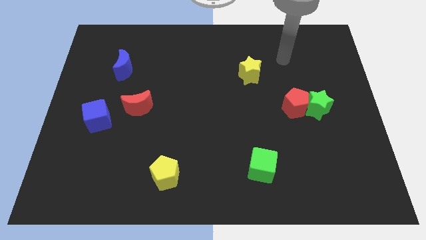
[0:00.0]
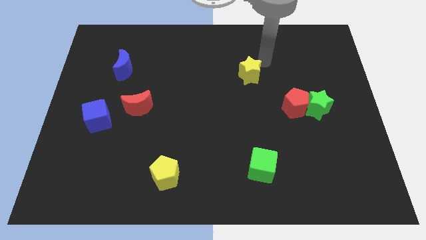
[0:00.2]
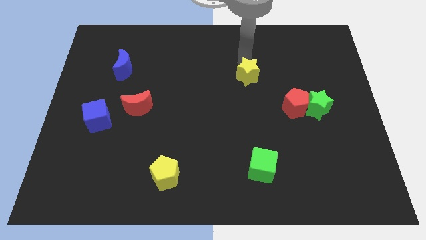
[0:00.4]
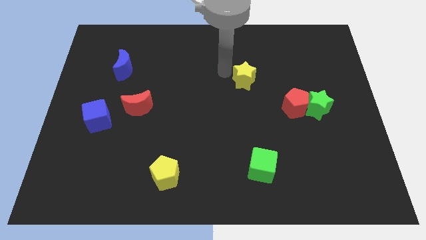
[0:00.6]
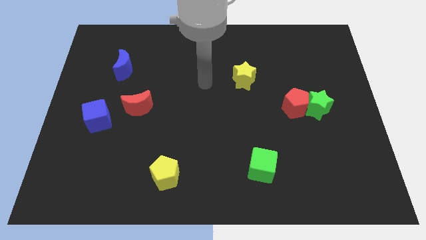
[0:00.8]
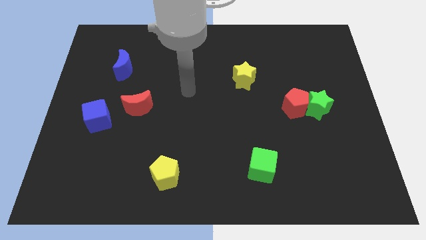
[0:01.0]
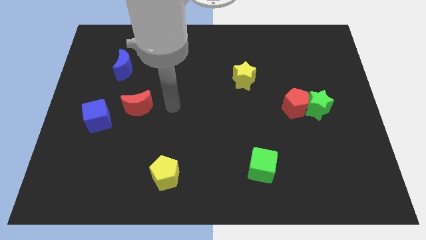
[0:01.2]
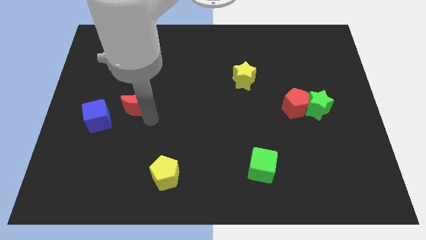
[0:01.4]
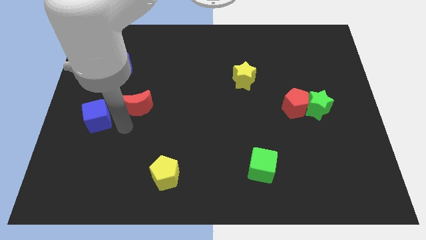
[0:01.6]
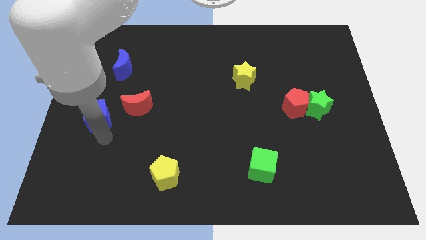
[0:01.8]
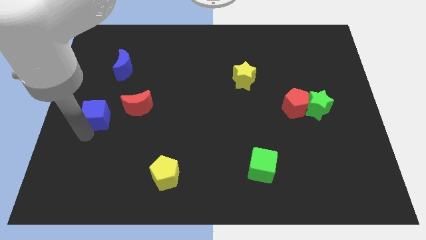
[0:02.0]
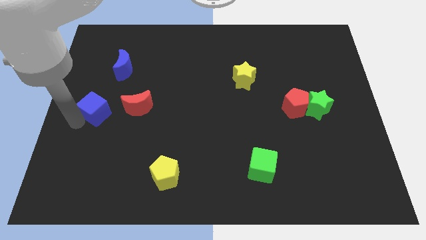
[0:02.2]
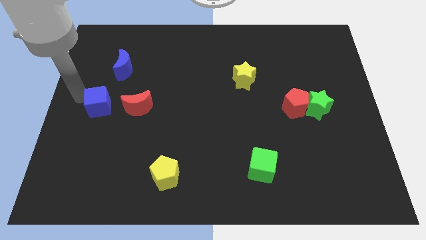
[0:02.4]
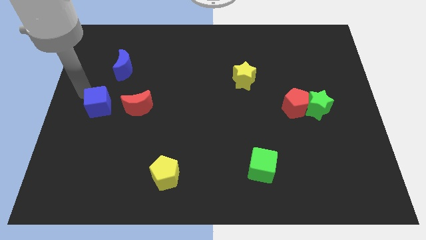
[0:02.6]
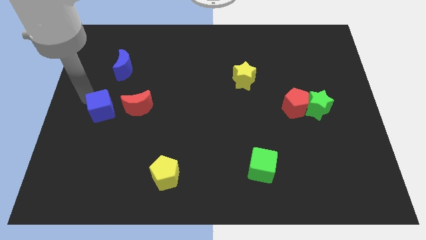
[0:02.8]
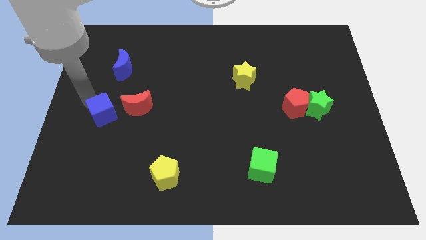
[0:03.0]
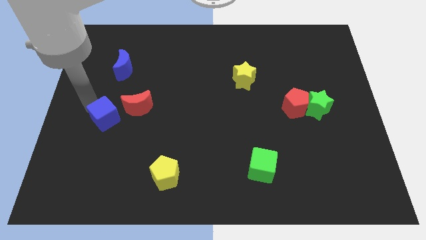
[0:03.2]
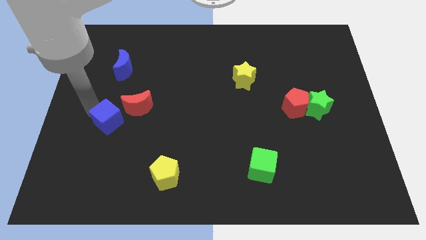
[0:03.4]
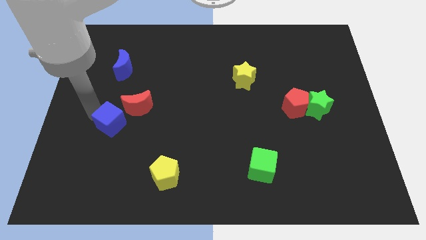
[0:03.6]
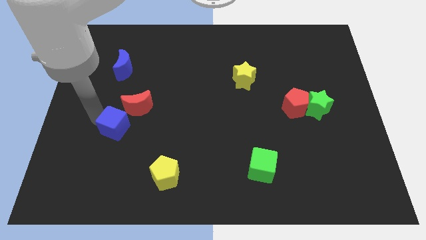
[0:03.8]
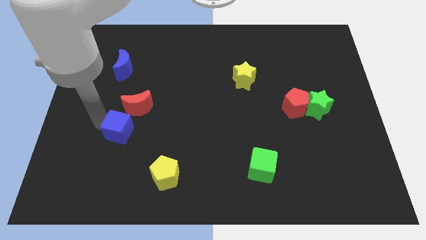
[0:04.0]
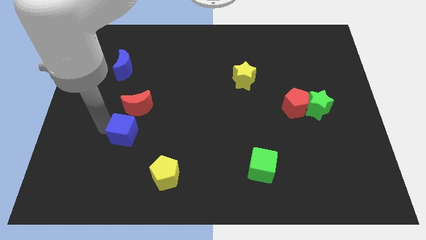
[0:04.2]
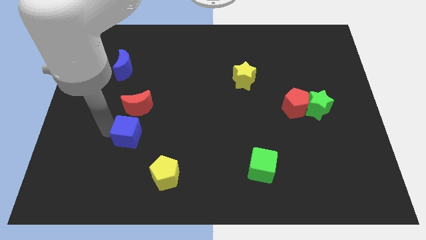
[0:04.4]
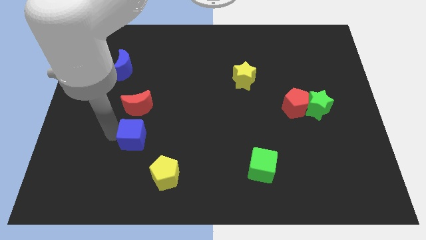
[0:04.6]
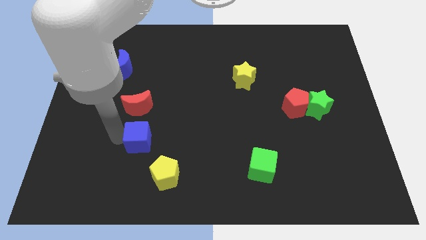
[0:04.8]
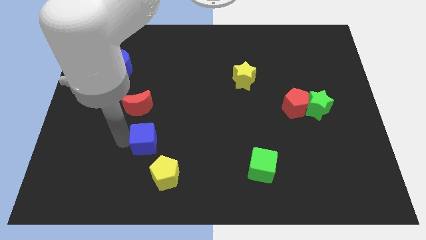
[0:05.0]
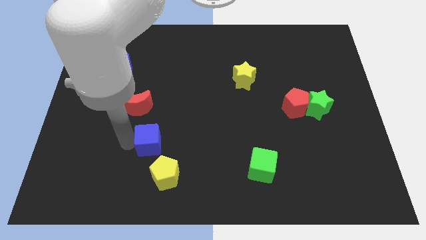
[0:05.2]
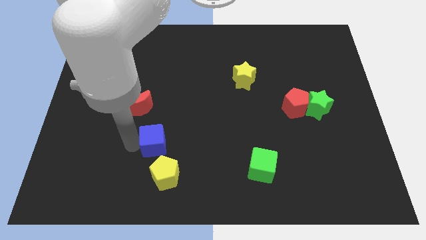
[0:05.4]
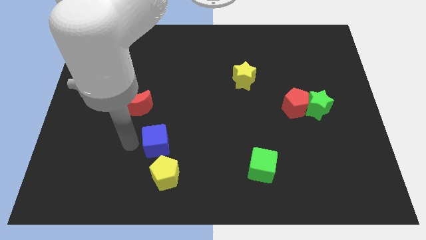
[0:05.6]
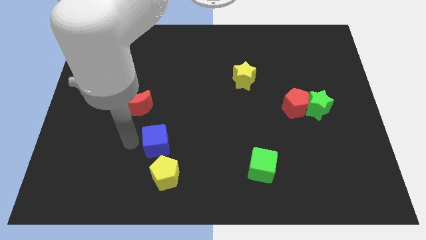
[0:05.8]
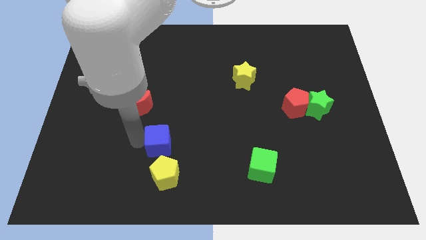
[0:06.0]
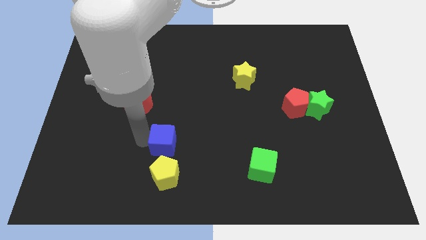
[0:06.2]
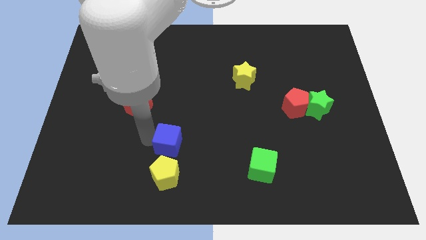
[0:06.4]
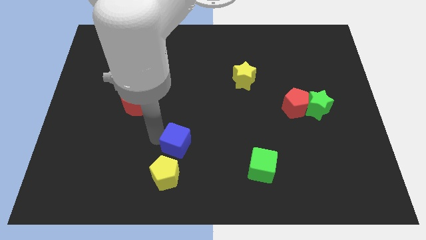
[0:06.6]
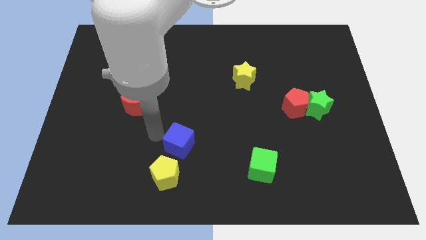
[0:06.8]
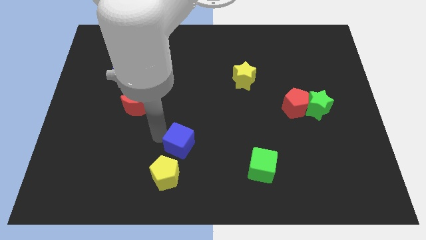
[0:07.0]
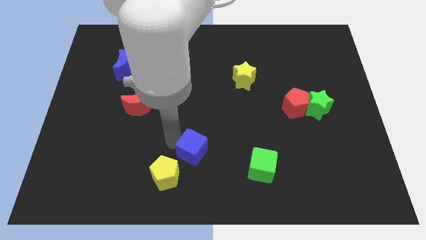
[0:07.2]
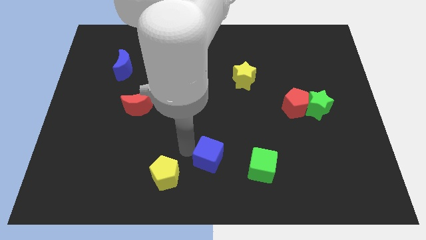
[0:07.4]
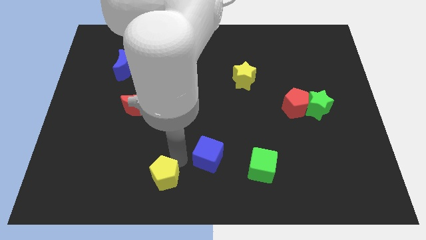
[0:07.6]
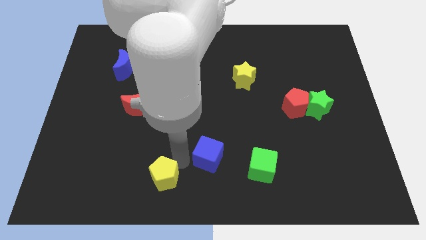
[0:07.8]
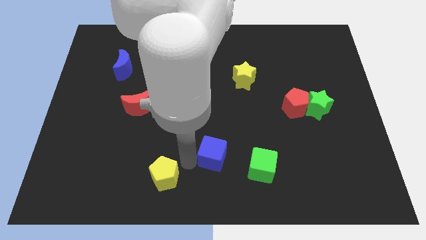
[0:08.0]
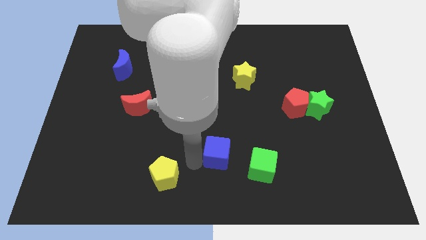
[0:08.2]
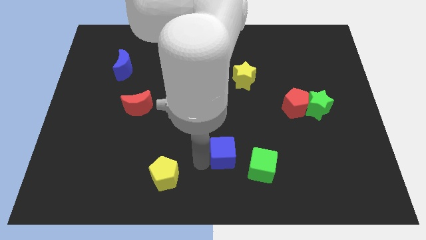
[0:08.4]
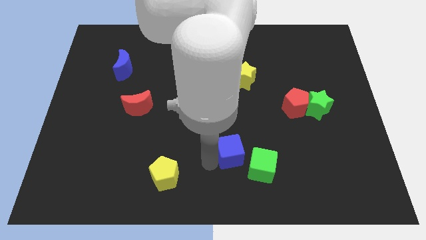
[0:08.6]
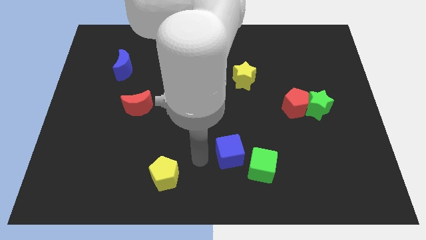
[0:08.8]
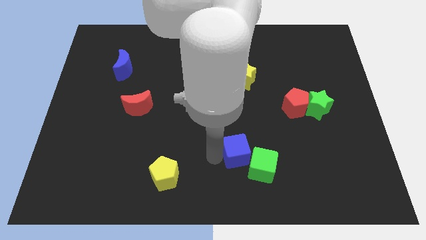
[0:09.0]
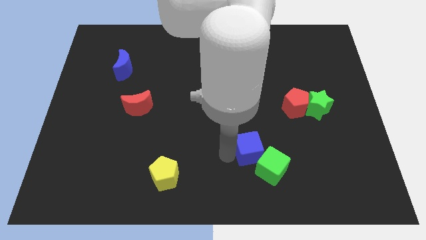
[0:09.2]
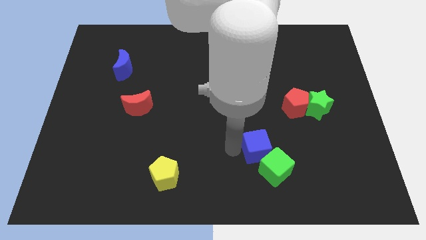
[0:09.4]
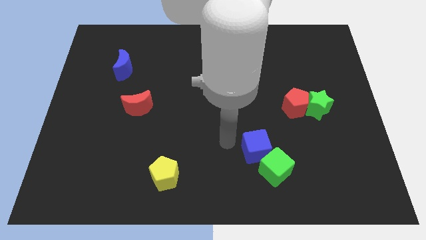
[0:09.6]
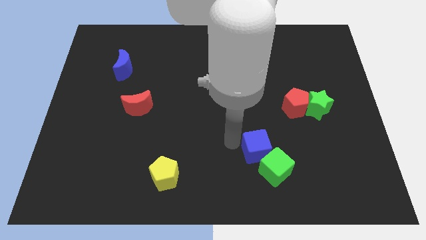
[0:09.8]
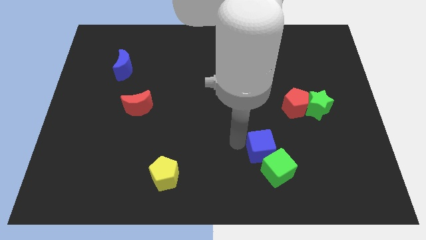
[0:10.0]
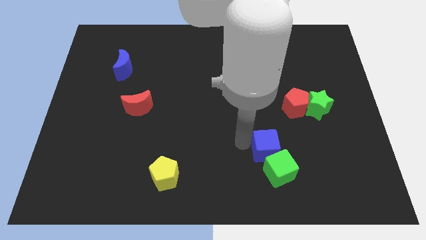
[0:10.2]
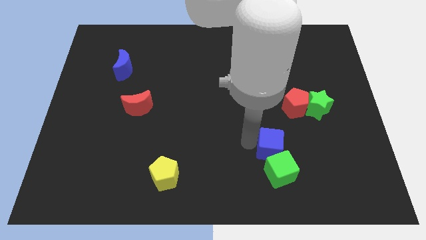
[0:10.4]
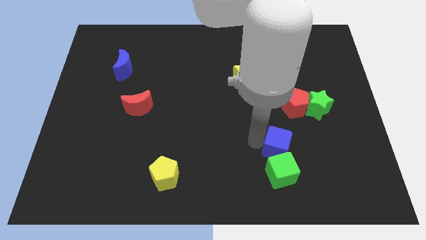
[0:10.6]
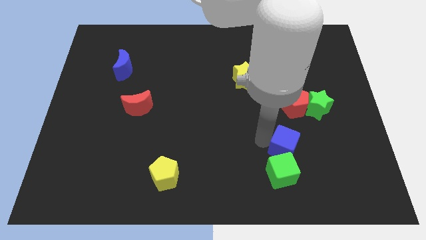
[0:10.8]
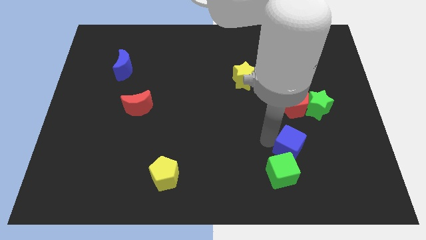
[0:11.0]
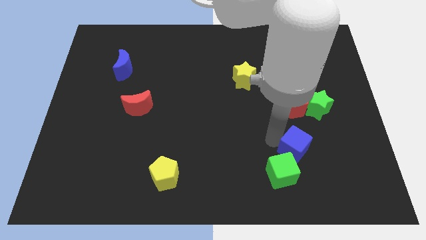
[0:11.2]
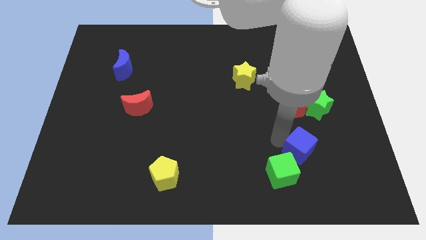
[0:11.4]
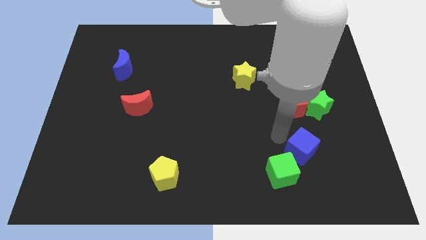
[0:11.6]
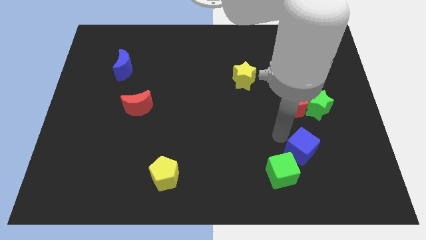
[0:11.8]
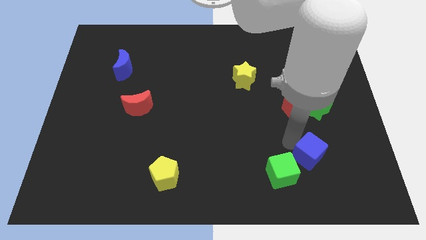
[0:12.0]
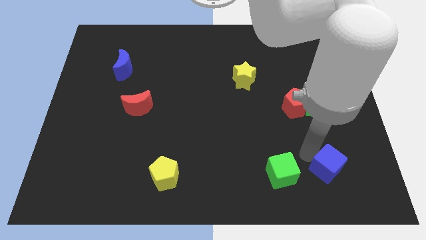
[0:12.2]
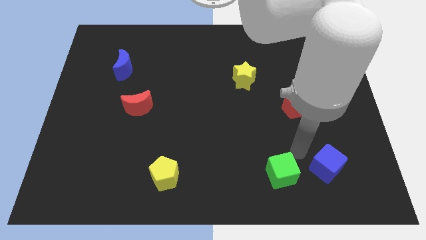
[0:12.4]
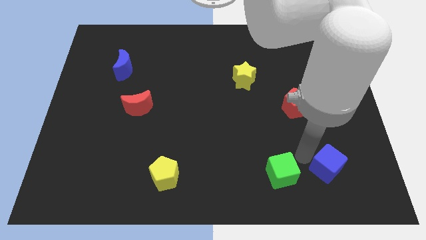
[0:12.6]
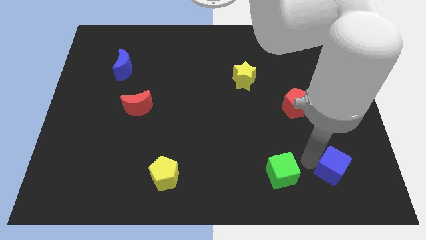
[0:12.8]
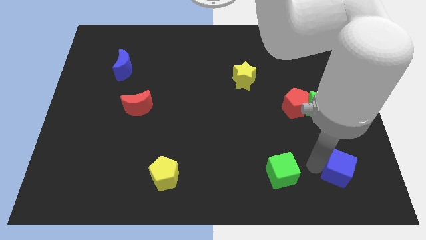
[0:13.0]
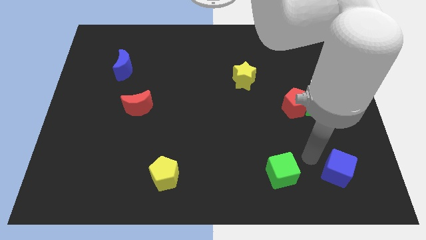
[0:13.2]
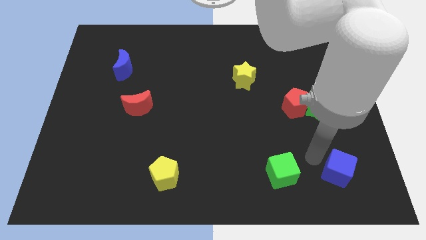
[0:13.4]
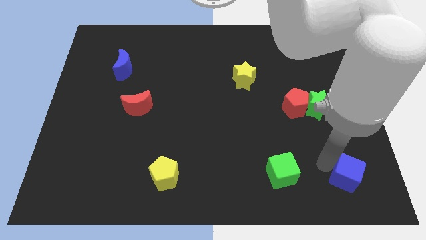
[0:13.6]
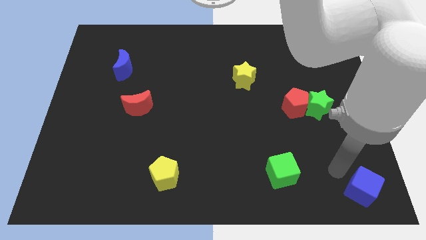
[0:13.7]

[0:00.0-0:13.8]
put the blue cube to the bottom right of the board
